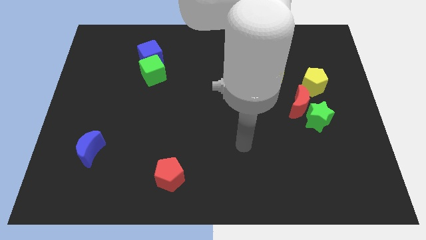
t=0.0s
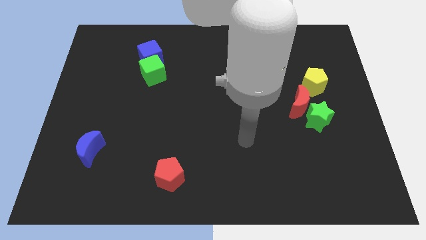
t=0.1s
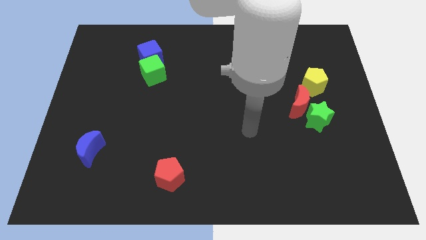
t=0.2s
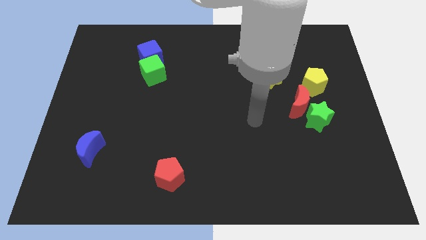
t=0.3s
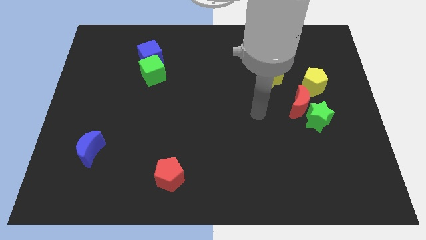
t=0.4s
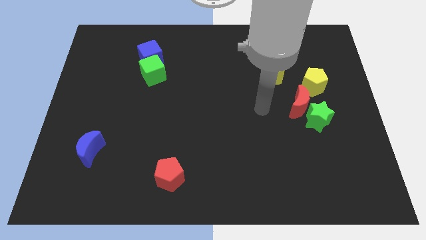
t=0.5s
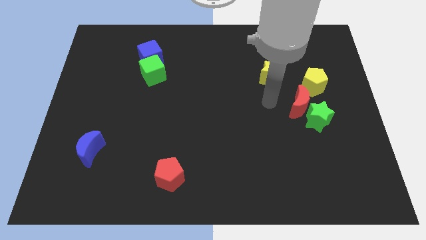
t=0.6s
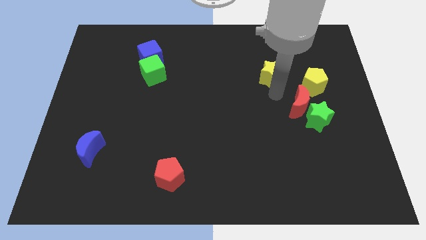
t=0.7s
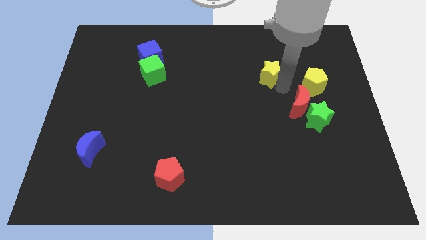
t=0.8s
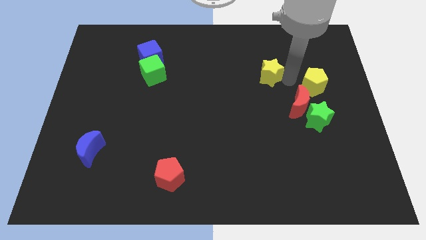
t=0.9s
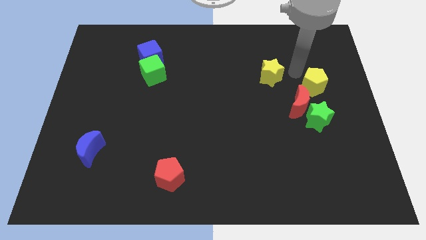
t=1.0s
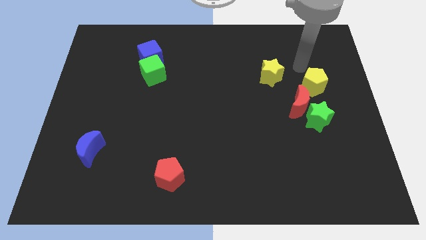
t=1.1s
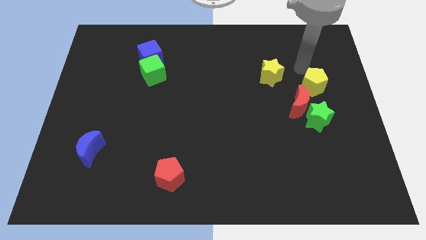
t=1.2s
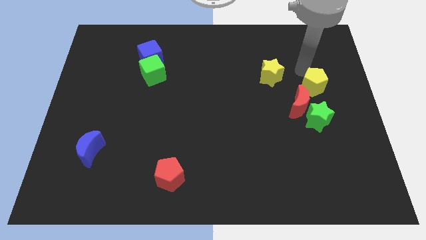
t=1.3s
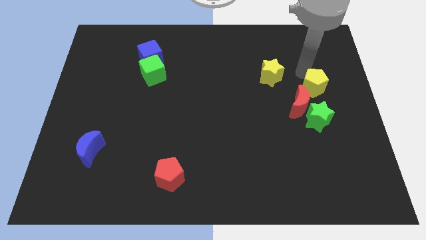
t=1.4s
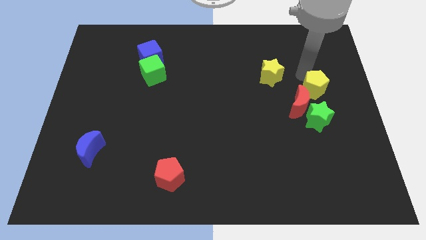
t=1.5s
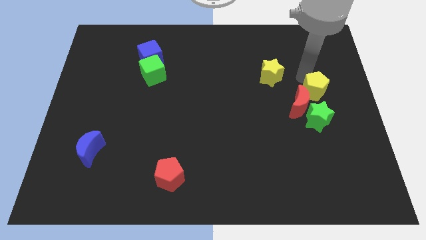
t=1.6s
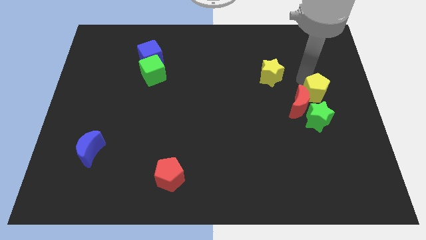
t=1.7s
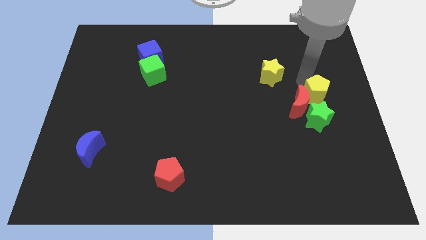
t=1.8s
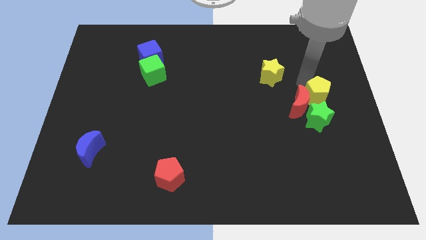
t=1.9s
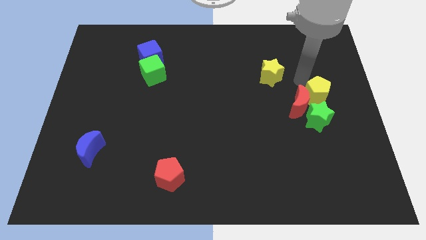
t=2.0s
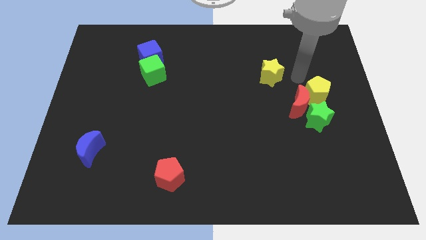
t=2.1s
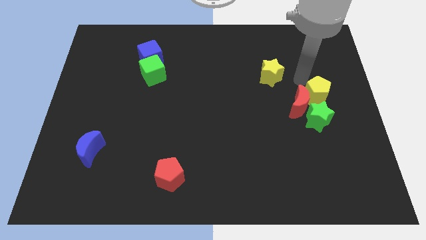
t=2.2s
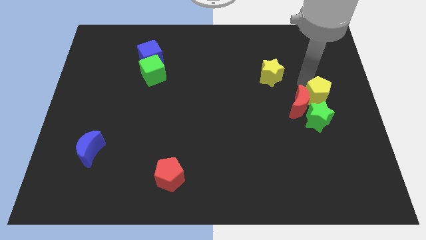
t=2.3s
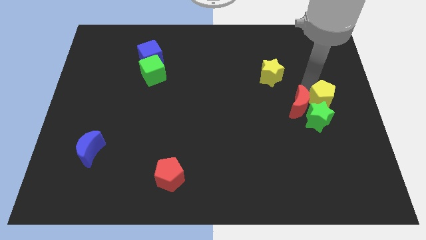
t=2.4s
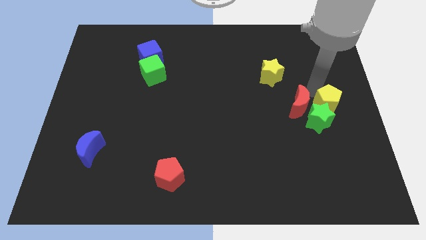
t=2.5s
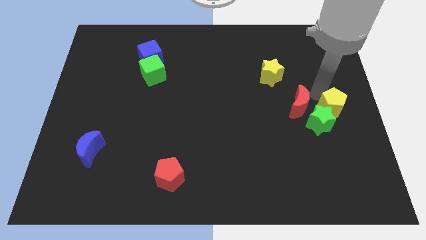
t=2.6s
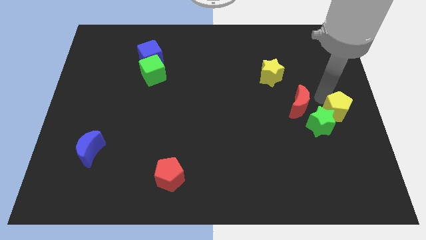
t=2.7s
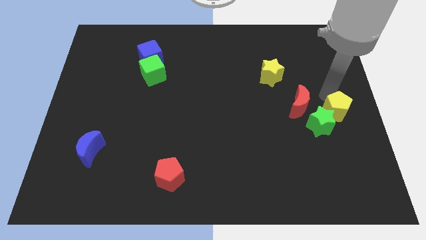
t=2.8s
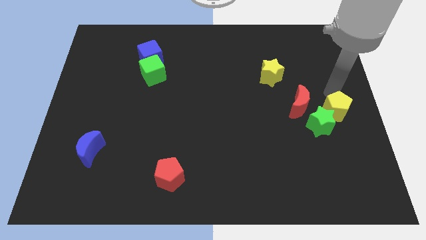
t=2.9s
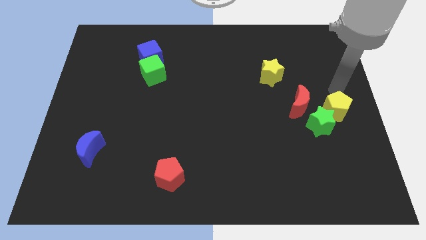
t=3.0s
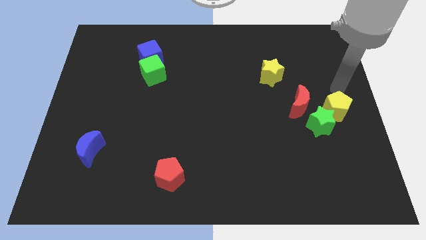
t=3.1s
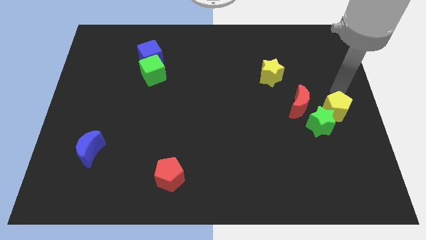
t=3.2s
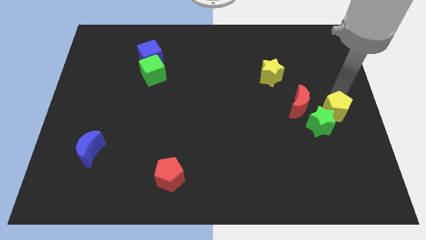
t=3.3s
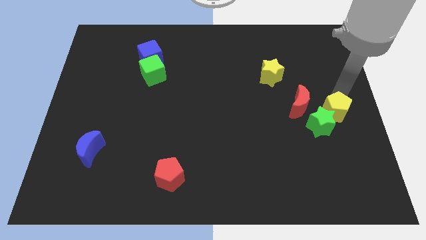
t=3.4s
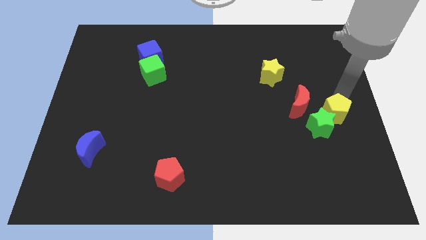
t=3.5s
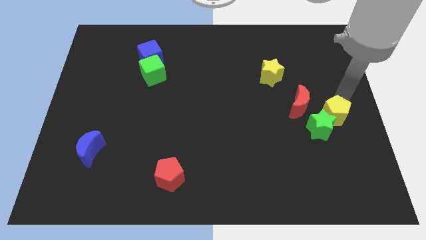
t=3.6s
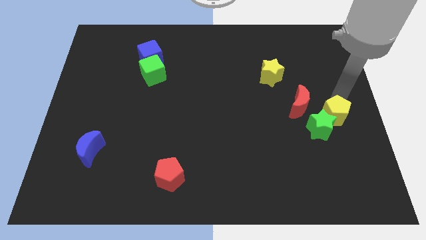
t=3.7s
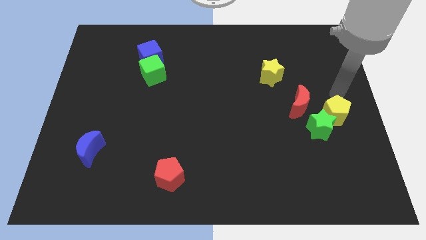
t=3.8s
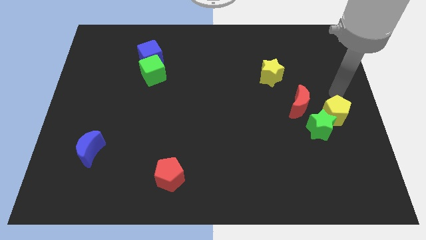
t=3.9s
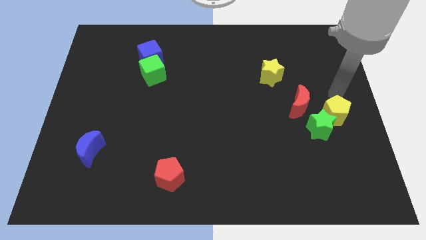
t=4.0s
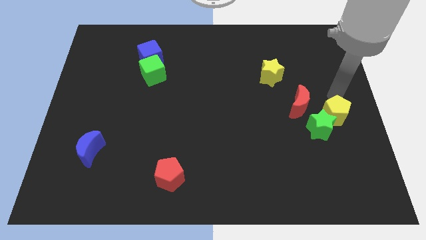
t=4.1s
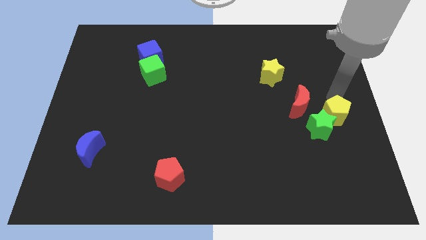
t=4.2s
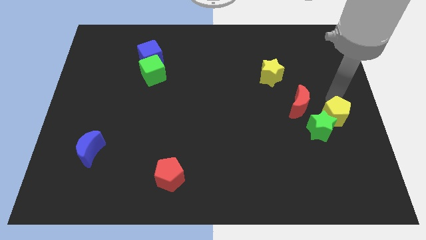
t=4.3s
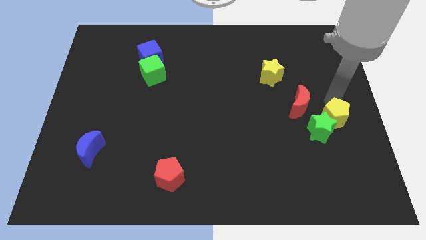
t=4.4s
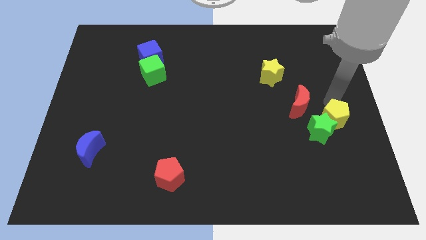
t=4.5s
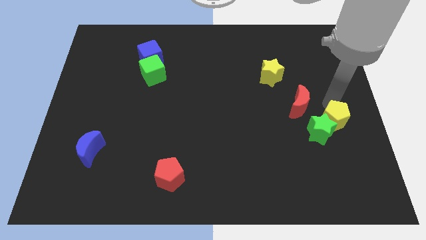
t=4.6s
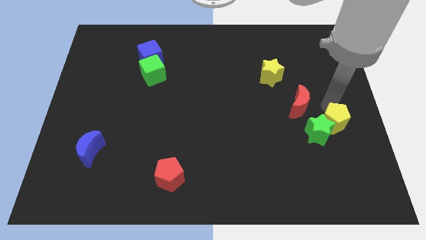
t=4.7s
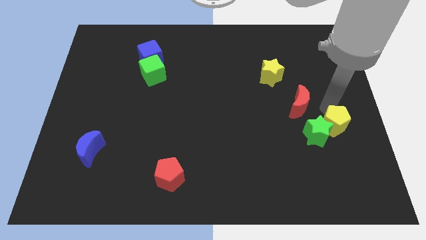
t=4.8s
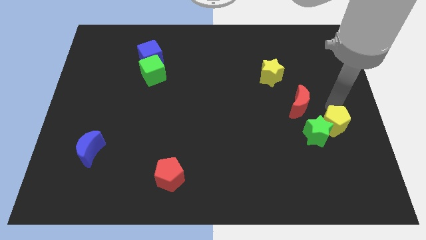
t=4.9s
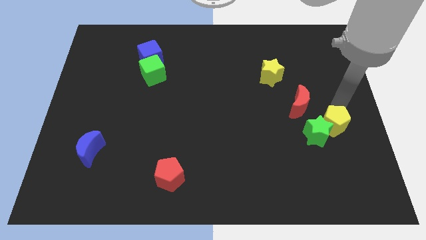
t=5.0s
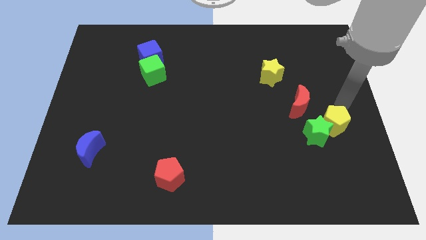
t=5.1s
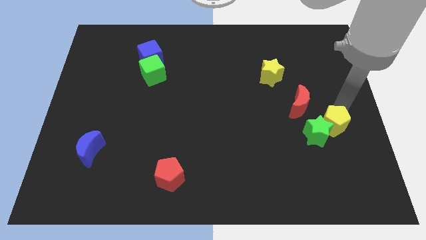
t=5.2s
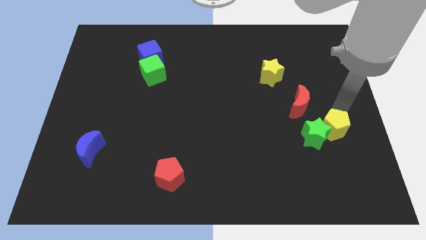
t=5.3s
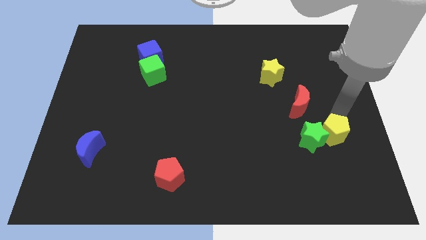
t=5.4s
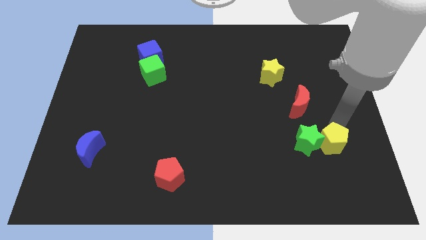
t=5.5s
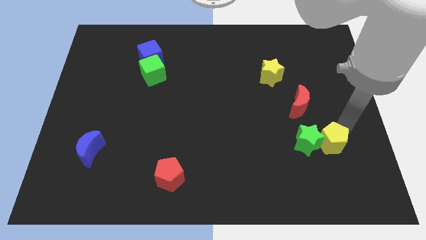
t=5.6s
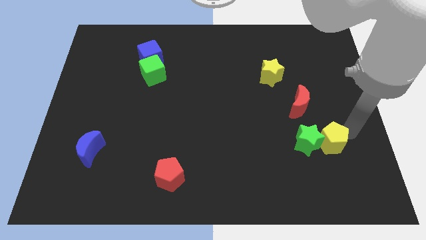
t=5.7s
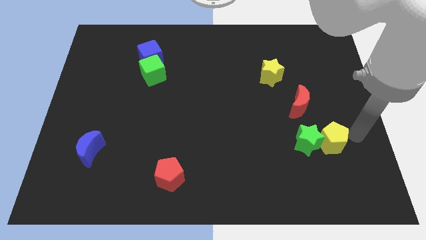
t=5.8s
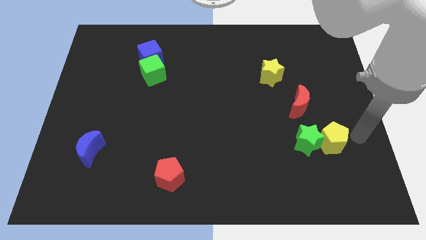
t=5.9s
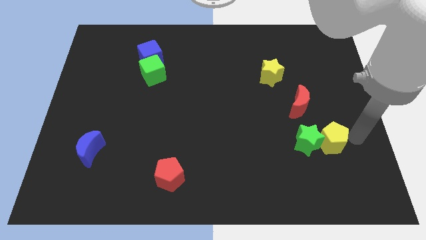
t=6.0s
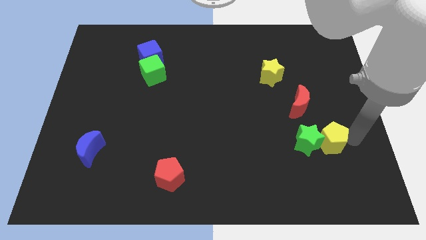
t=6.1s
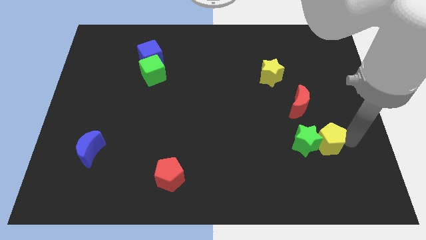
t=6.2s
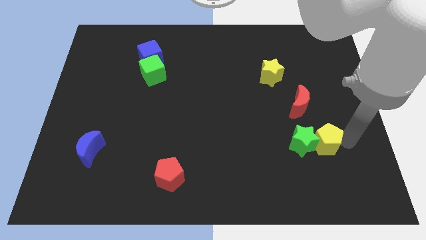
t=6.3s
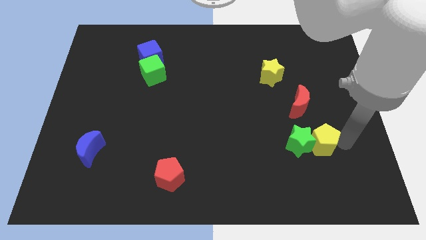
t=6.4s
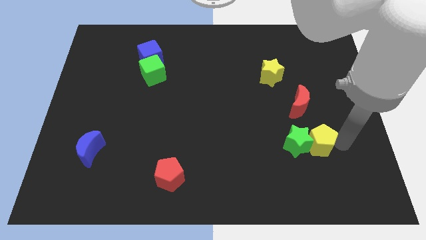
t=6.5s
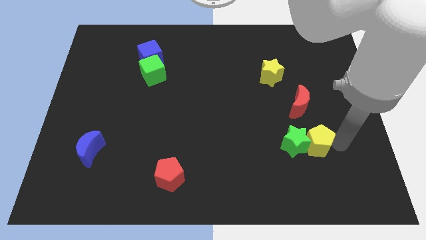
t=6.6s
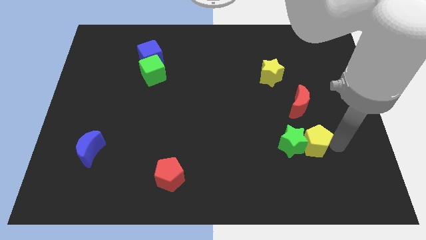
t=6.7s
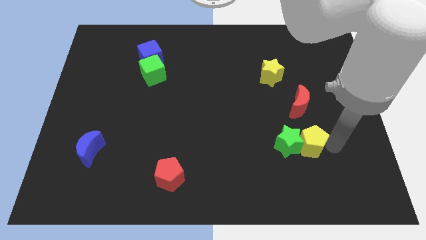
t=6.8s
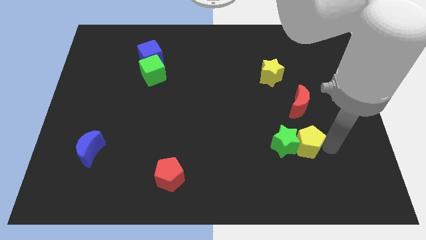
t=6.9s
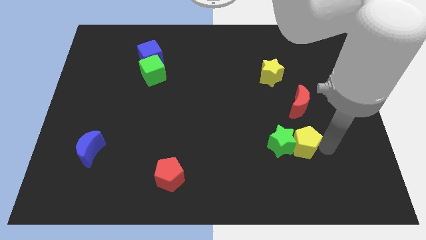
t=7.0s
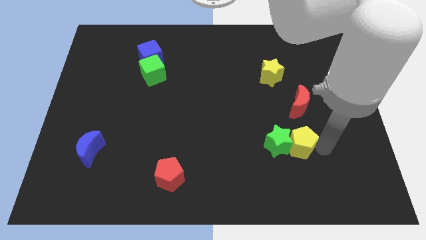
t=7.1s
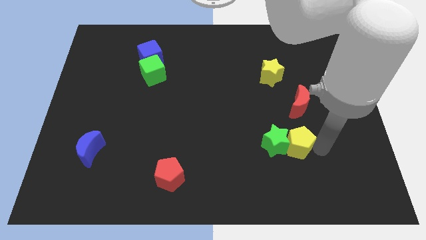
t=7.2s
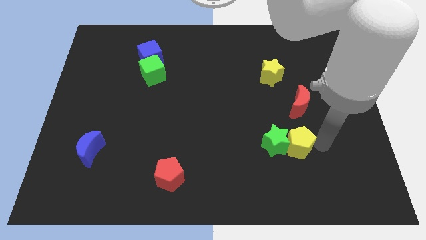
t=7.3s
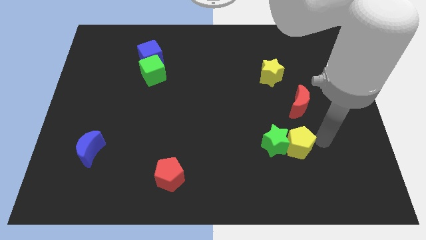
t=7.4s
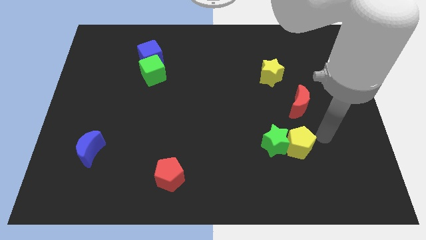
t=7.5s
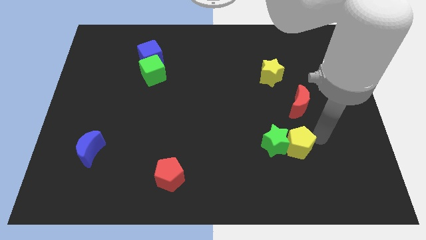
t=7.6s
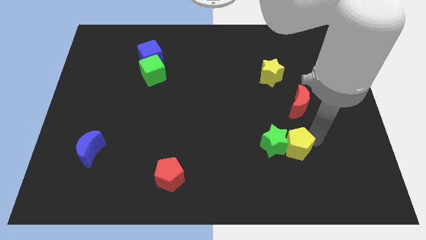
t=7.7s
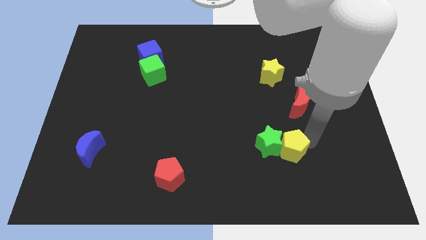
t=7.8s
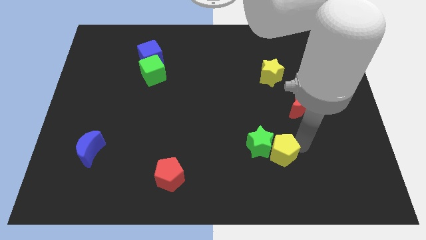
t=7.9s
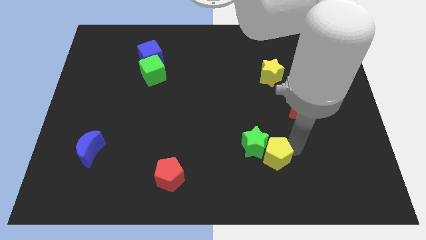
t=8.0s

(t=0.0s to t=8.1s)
move the yellow pentagon downwards and then to the left

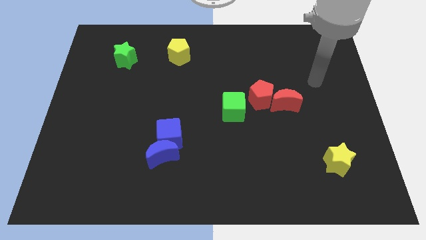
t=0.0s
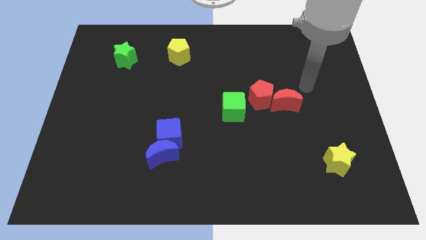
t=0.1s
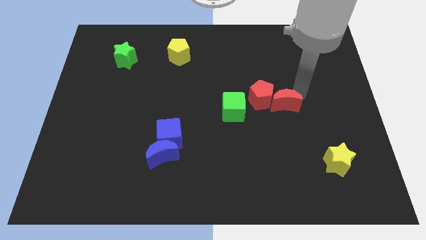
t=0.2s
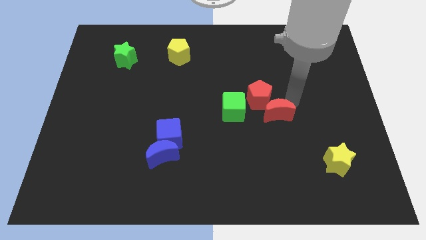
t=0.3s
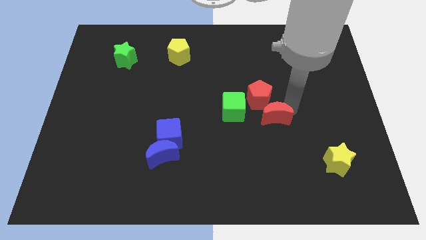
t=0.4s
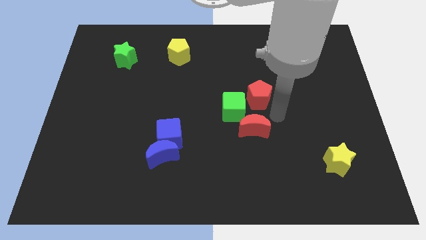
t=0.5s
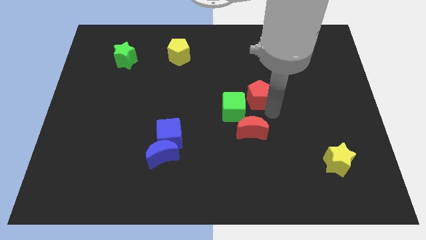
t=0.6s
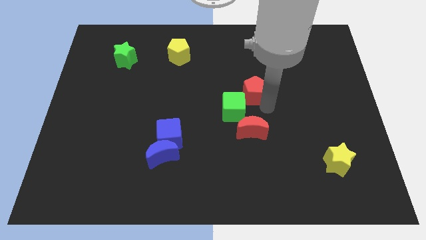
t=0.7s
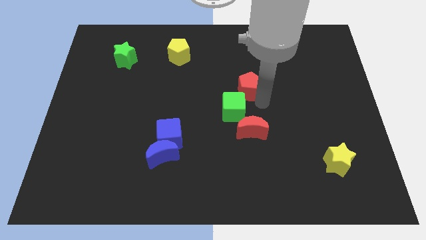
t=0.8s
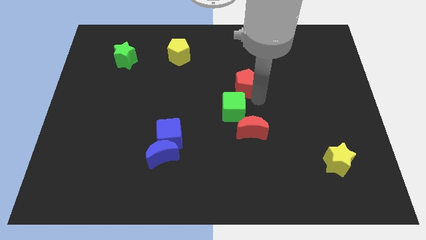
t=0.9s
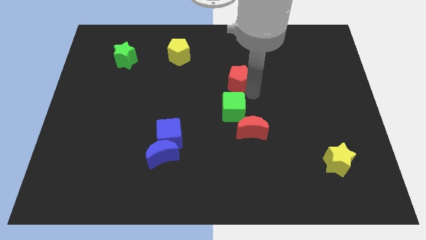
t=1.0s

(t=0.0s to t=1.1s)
slightly slide the red pentagon diagonally upwards and to the left
